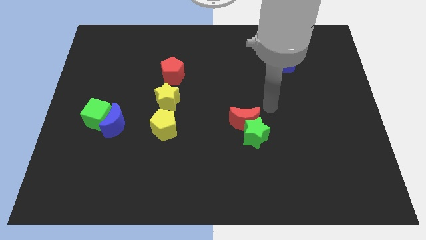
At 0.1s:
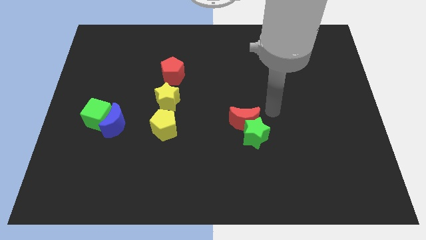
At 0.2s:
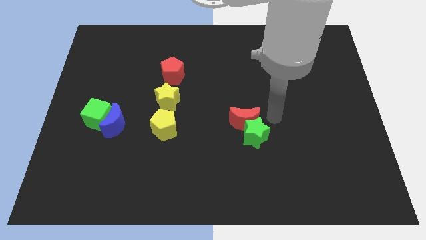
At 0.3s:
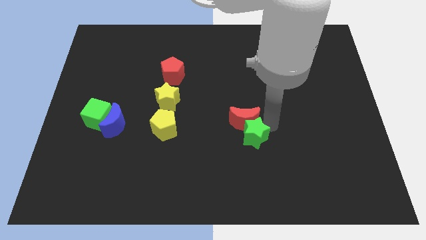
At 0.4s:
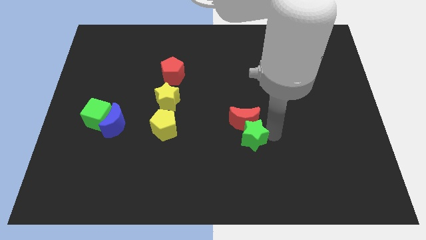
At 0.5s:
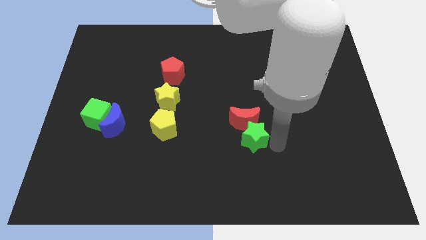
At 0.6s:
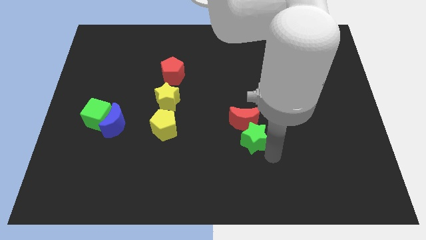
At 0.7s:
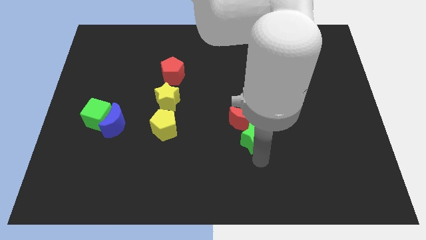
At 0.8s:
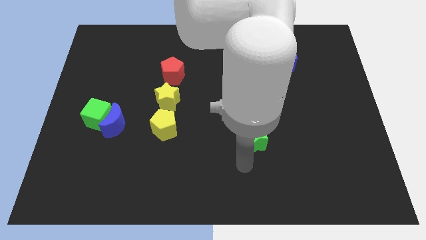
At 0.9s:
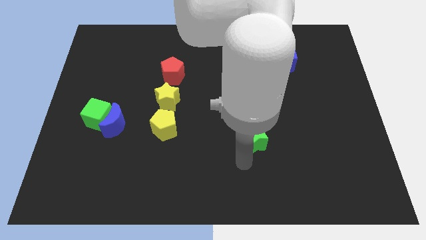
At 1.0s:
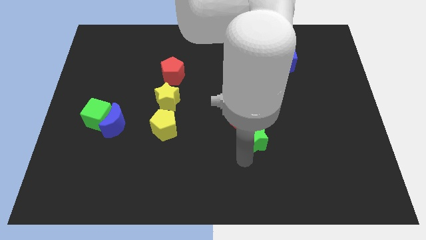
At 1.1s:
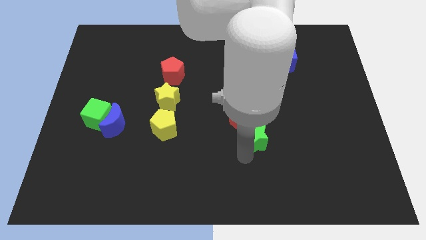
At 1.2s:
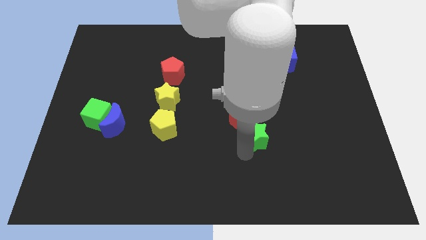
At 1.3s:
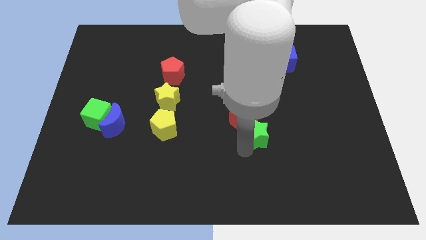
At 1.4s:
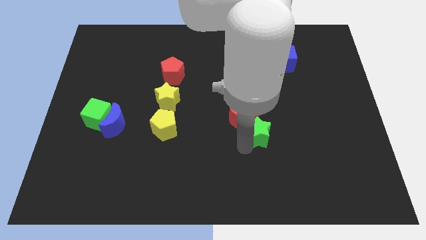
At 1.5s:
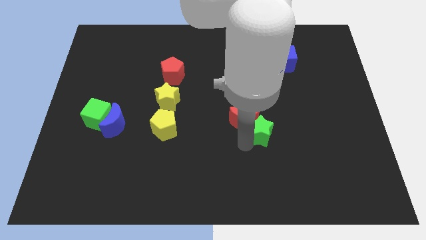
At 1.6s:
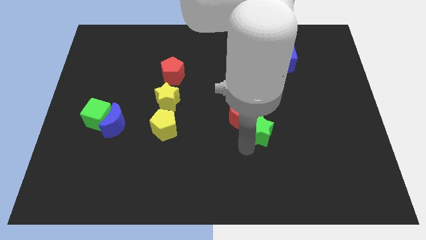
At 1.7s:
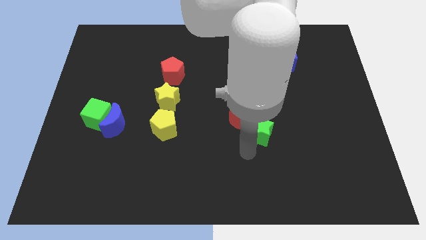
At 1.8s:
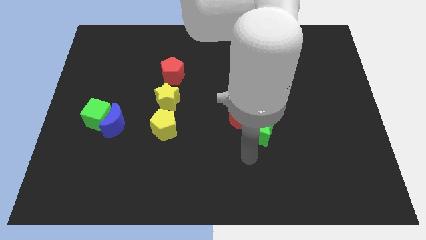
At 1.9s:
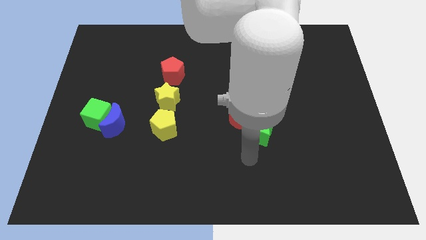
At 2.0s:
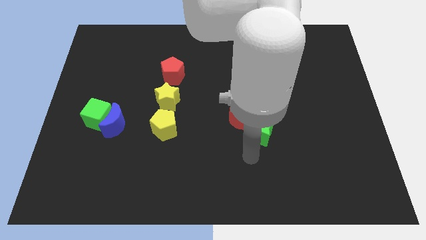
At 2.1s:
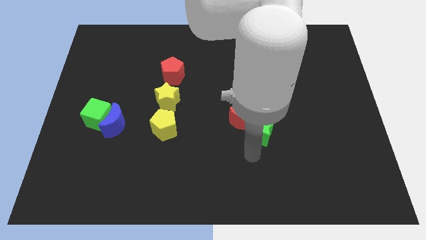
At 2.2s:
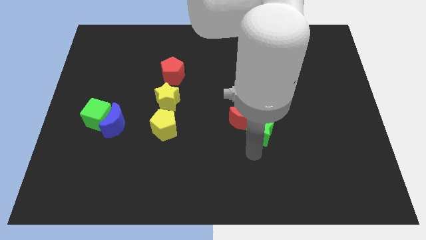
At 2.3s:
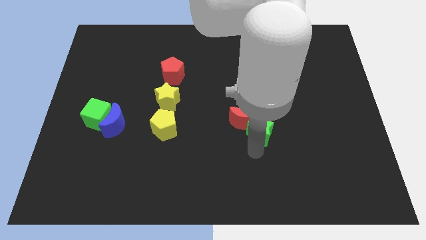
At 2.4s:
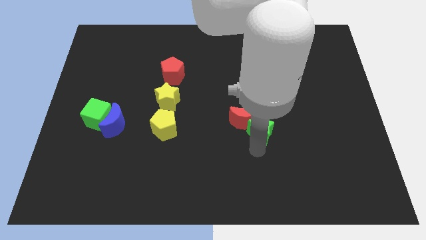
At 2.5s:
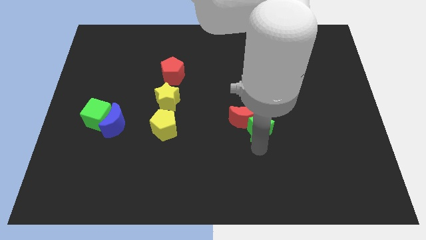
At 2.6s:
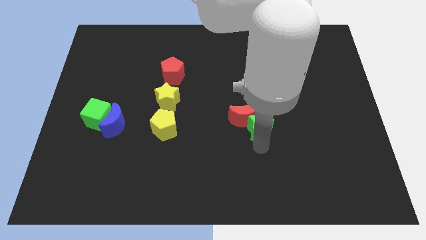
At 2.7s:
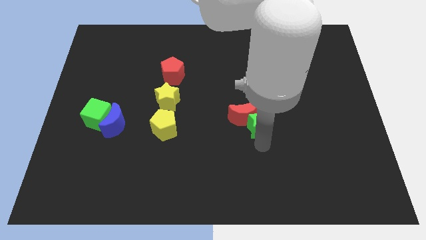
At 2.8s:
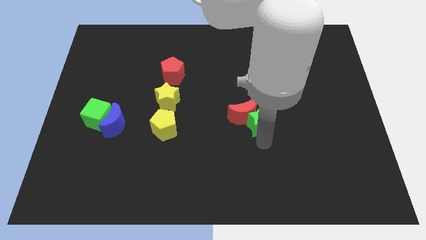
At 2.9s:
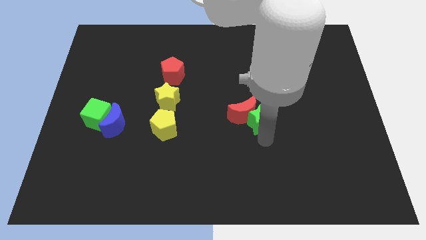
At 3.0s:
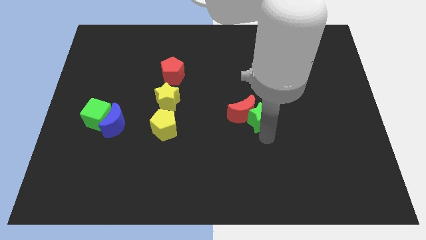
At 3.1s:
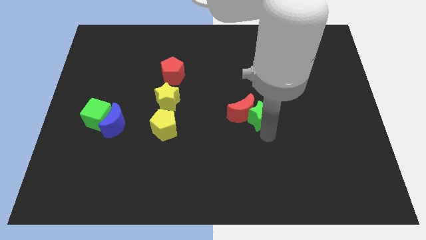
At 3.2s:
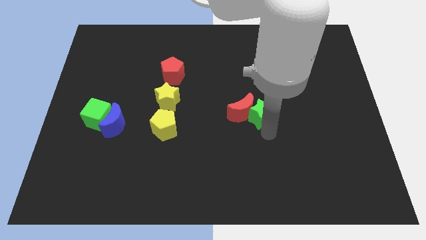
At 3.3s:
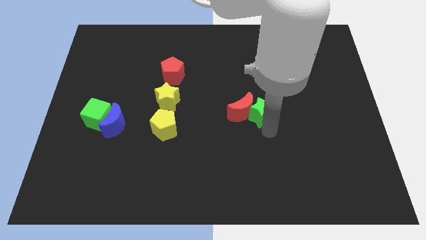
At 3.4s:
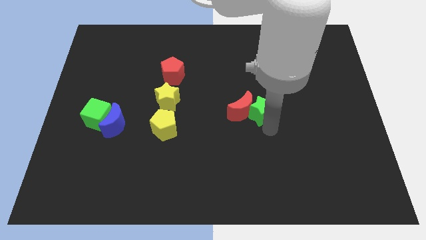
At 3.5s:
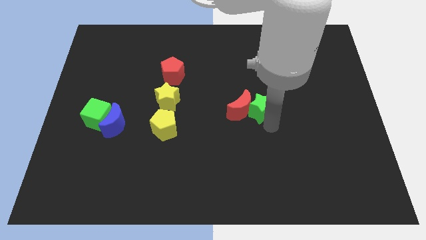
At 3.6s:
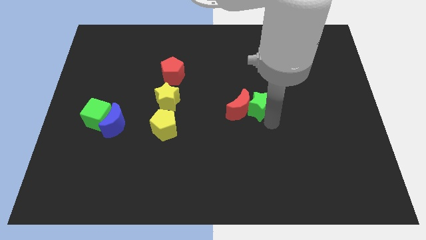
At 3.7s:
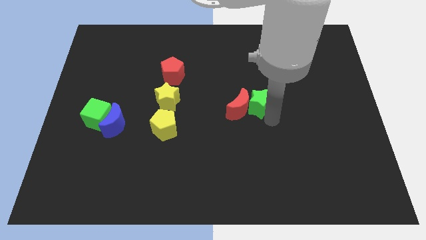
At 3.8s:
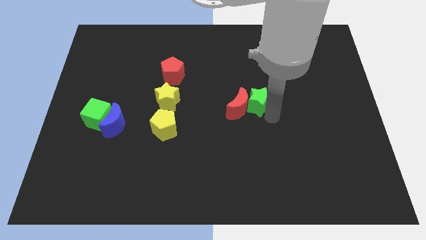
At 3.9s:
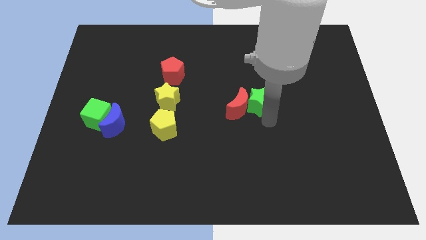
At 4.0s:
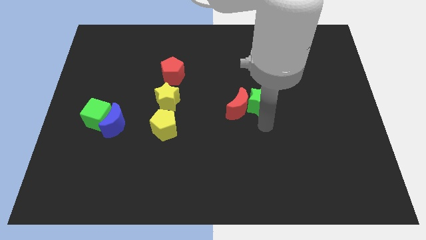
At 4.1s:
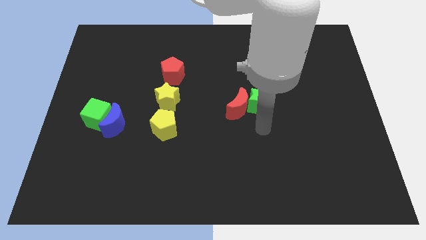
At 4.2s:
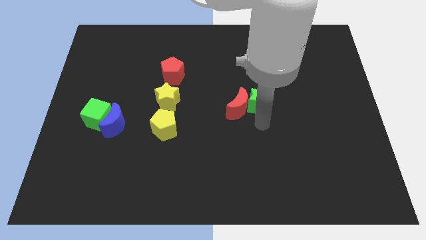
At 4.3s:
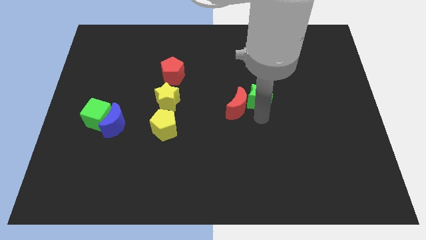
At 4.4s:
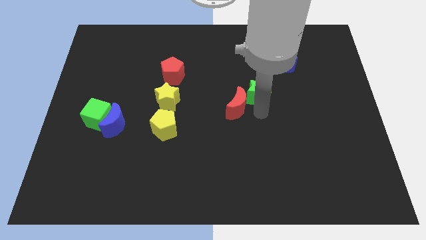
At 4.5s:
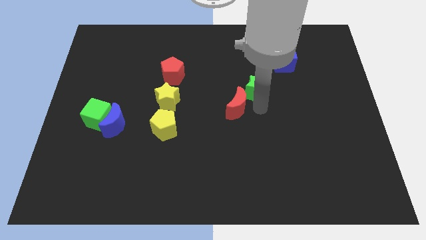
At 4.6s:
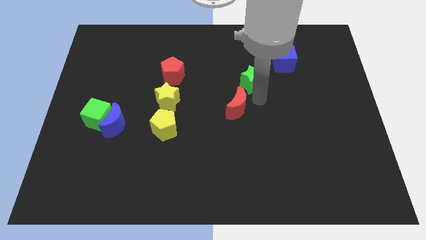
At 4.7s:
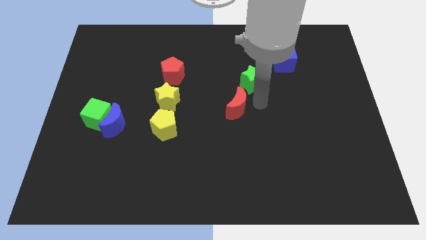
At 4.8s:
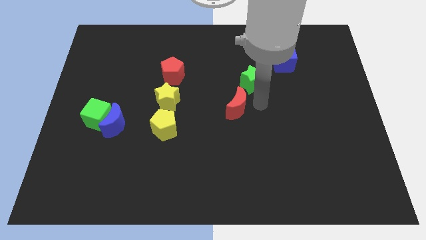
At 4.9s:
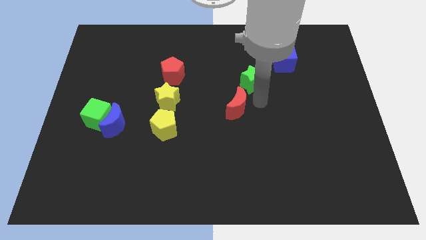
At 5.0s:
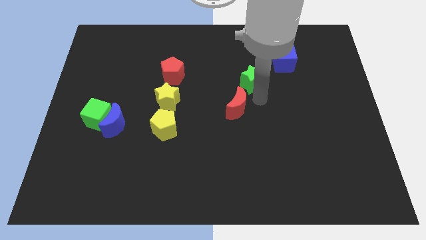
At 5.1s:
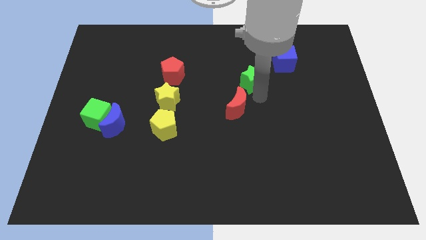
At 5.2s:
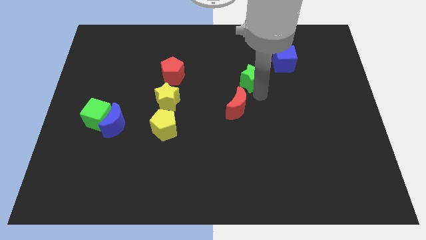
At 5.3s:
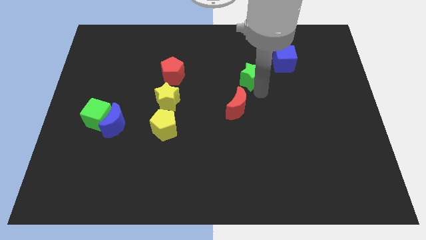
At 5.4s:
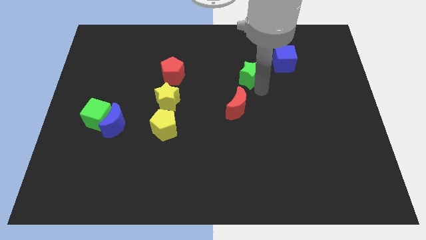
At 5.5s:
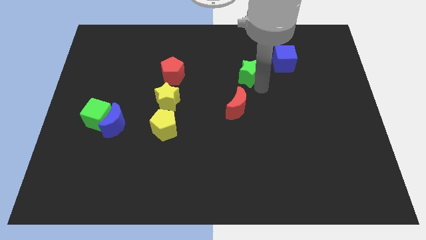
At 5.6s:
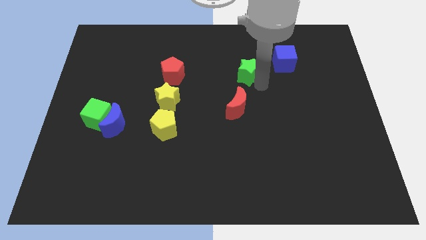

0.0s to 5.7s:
move the green star to the left side of the blue cube

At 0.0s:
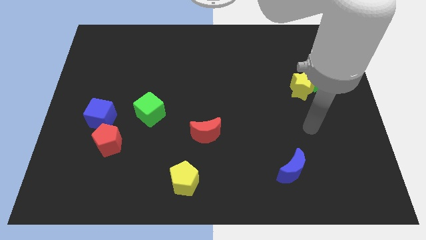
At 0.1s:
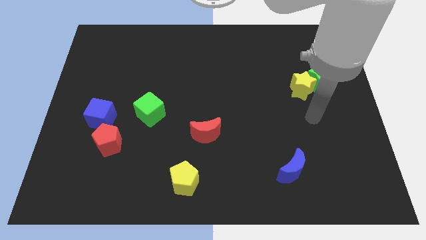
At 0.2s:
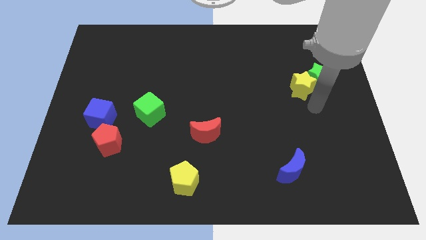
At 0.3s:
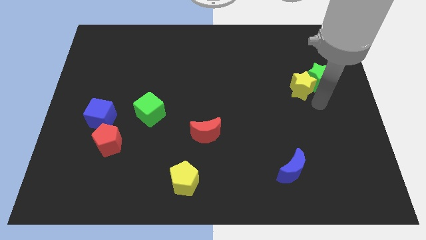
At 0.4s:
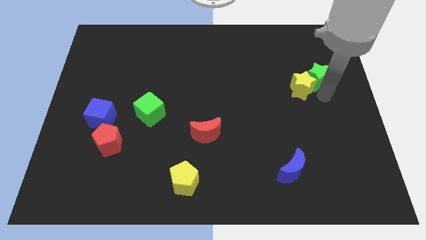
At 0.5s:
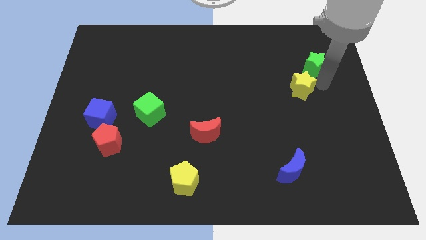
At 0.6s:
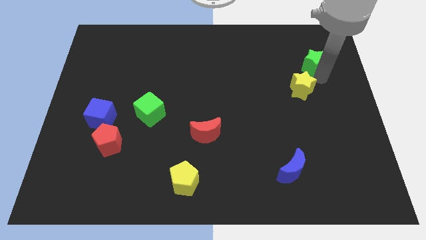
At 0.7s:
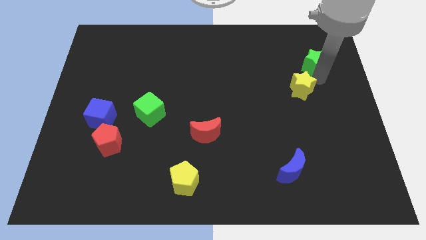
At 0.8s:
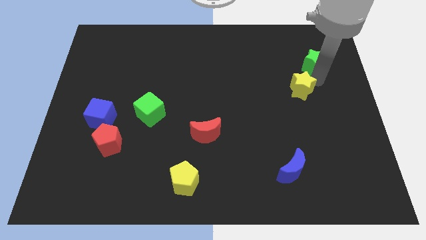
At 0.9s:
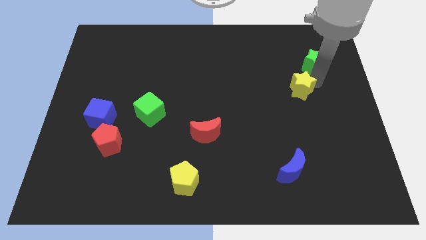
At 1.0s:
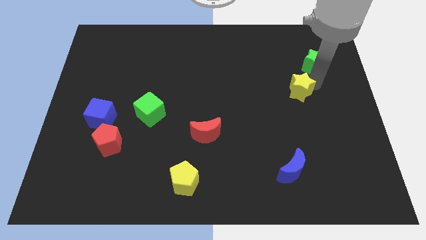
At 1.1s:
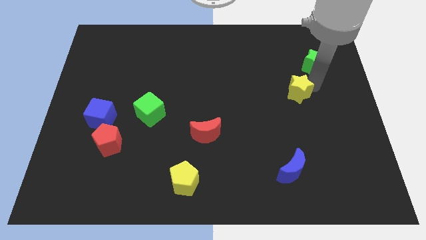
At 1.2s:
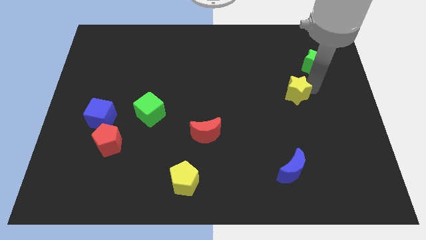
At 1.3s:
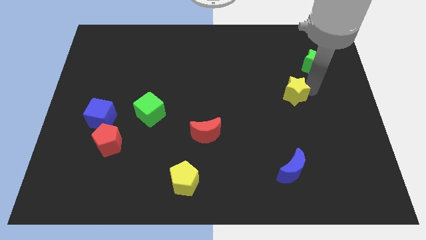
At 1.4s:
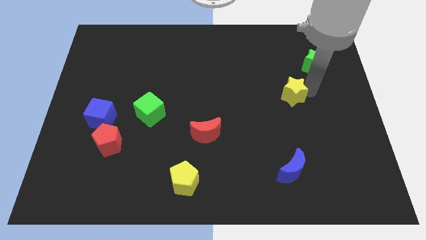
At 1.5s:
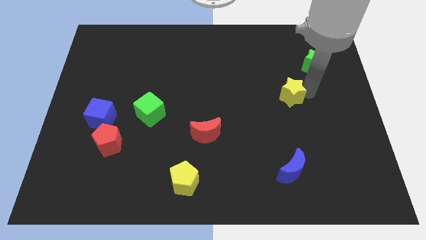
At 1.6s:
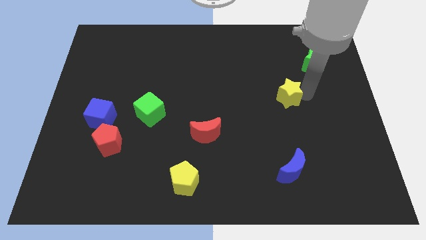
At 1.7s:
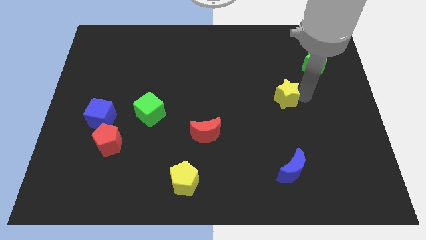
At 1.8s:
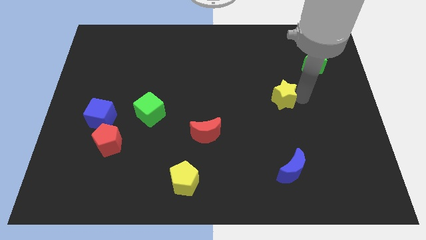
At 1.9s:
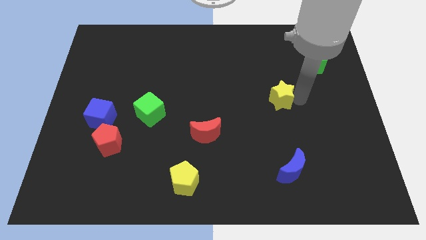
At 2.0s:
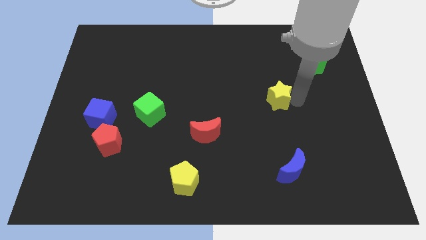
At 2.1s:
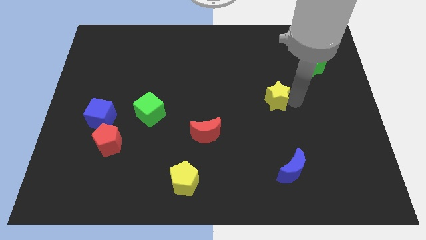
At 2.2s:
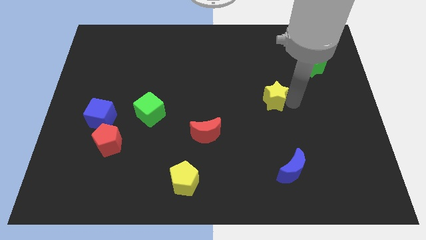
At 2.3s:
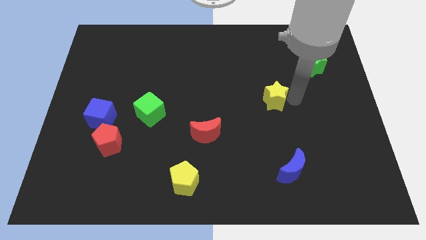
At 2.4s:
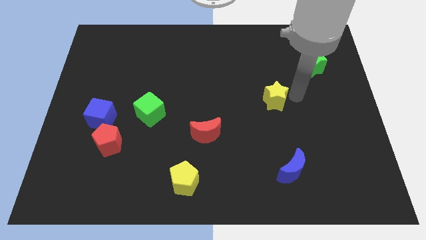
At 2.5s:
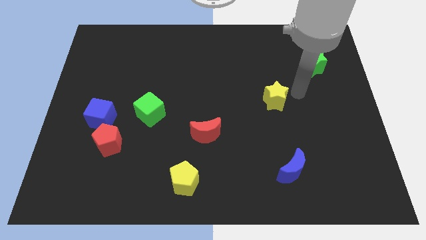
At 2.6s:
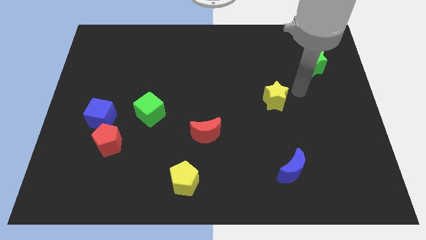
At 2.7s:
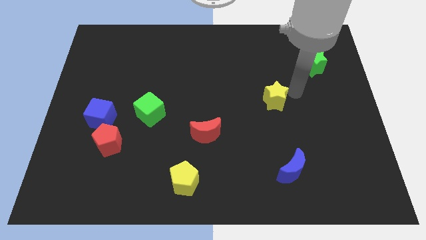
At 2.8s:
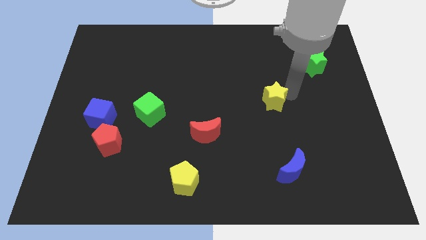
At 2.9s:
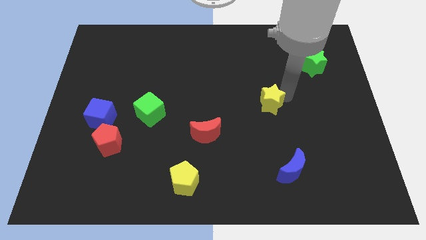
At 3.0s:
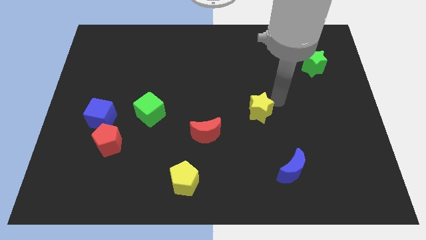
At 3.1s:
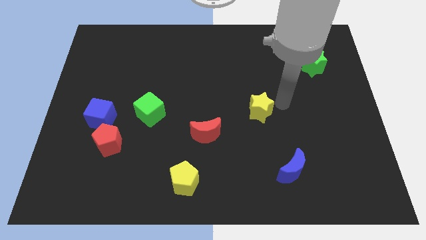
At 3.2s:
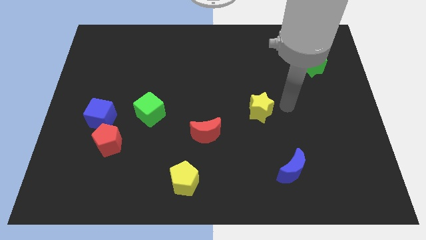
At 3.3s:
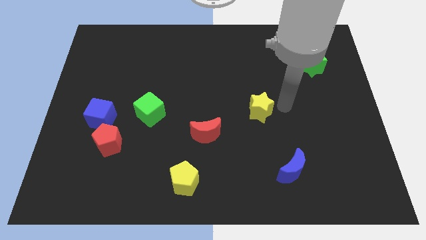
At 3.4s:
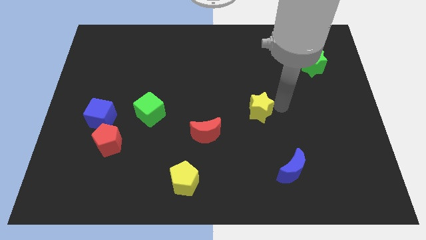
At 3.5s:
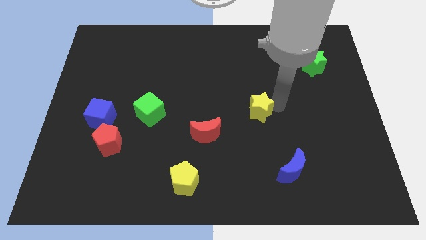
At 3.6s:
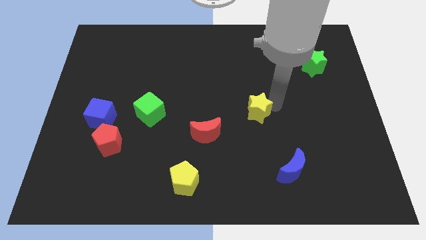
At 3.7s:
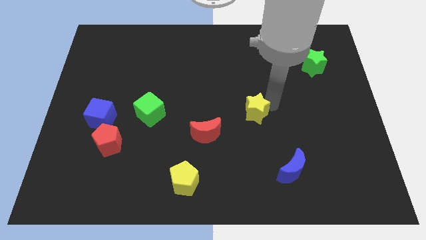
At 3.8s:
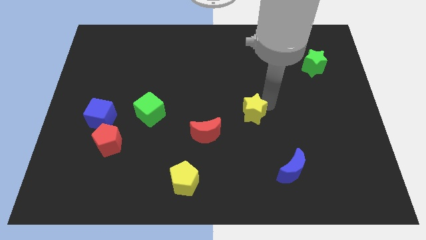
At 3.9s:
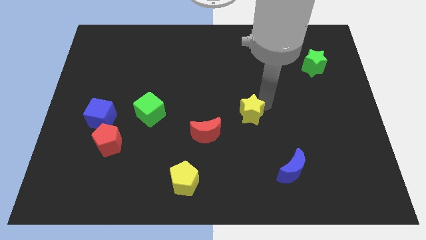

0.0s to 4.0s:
put the yellow star diagonally up and to the right of the red moon
